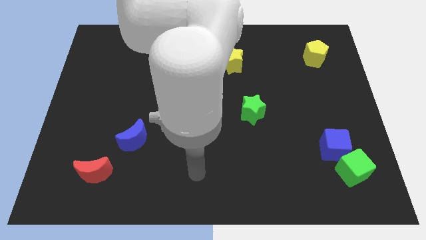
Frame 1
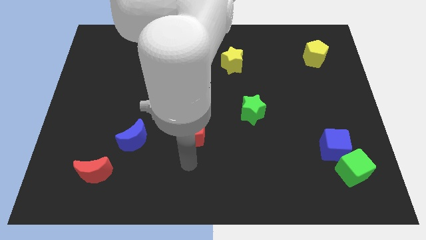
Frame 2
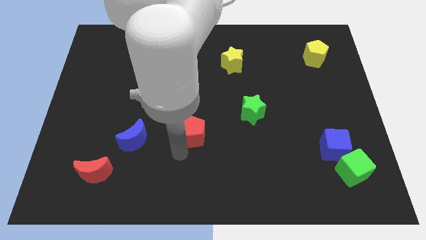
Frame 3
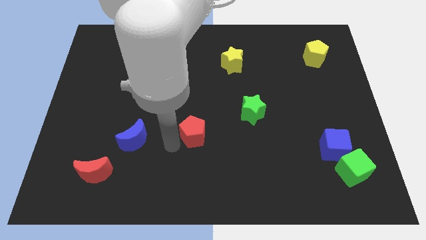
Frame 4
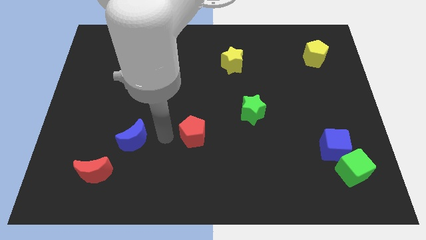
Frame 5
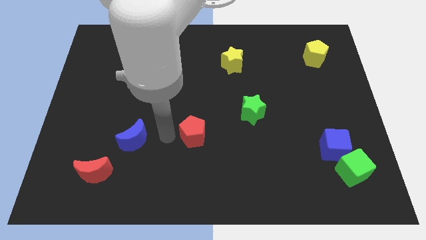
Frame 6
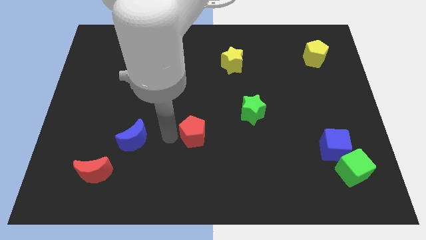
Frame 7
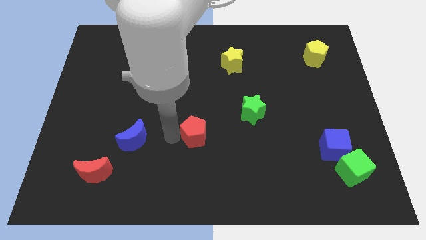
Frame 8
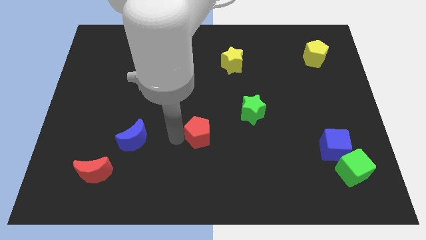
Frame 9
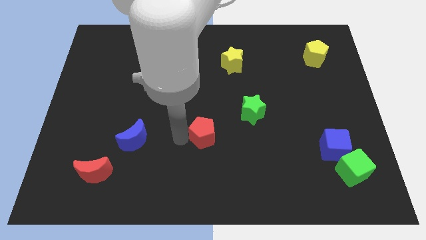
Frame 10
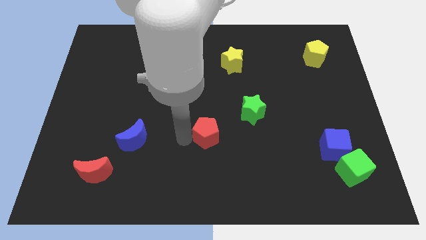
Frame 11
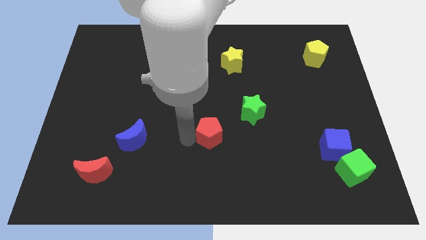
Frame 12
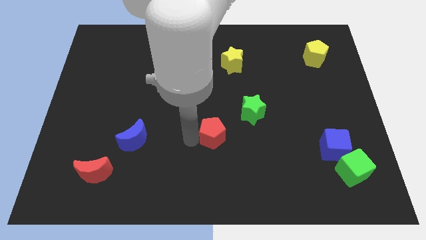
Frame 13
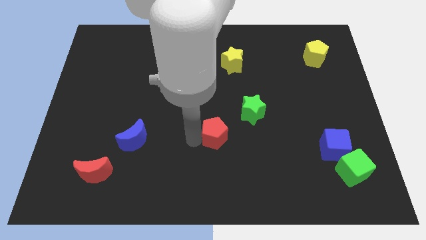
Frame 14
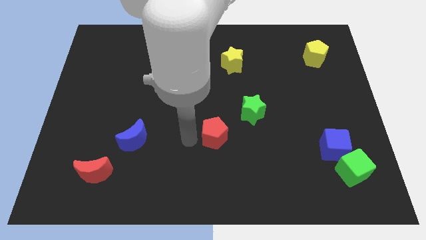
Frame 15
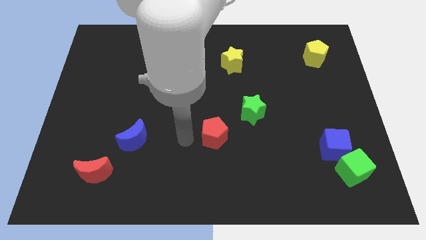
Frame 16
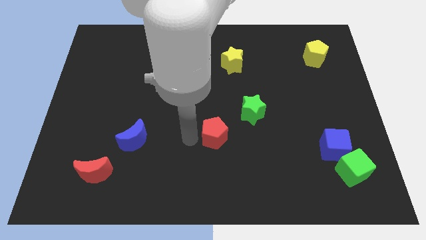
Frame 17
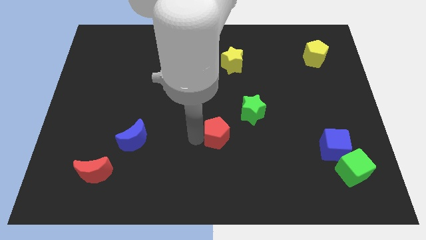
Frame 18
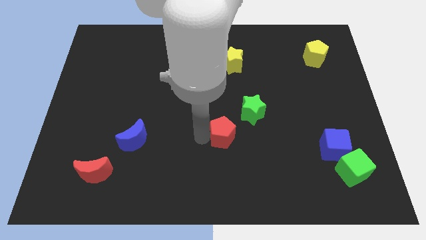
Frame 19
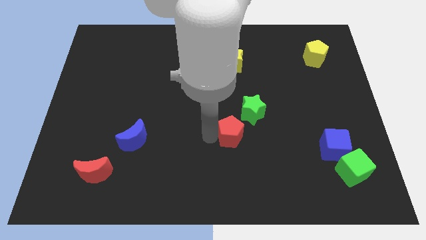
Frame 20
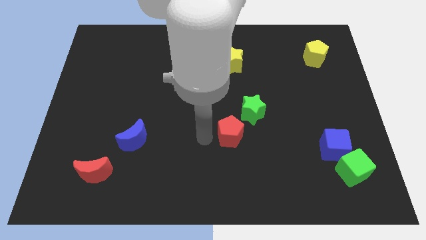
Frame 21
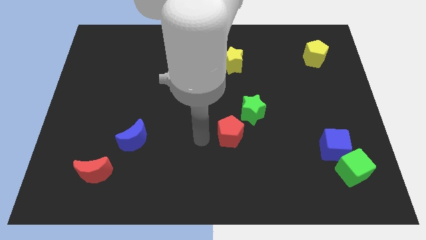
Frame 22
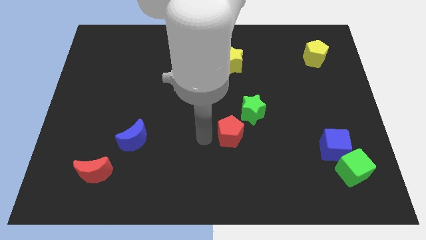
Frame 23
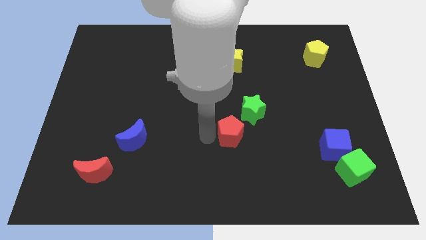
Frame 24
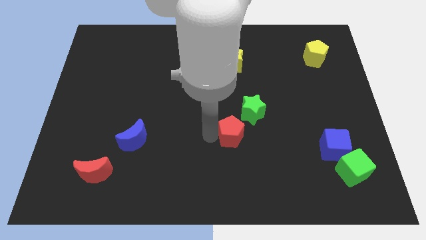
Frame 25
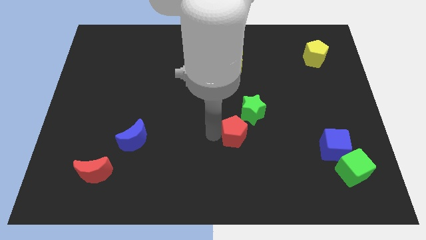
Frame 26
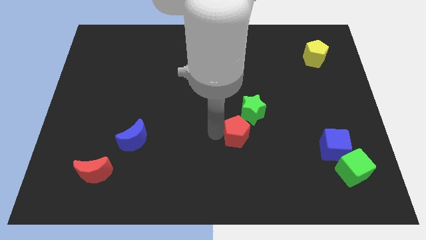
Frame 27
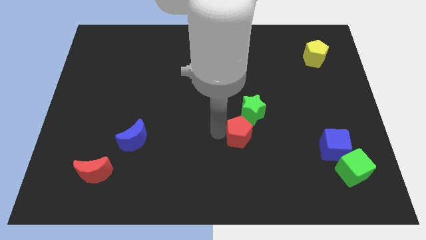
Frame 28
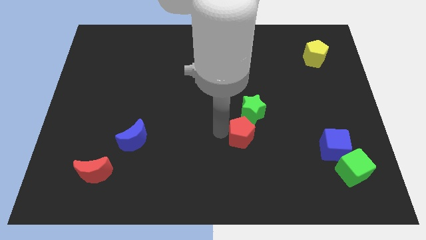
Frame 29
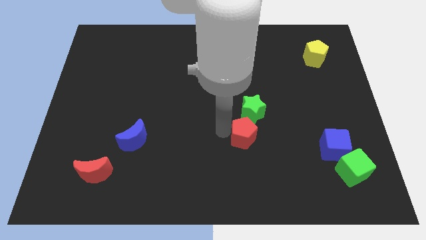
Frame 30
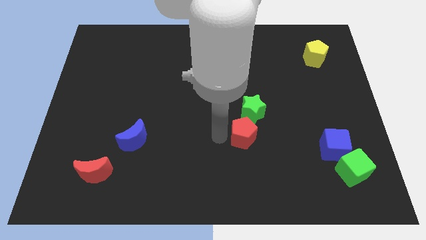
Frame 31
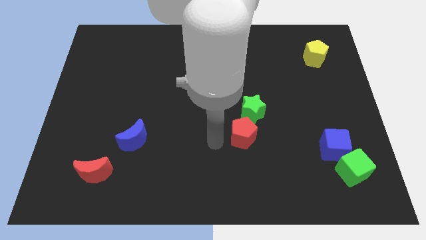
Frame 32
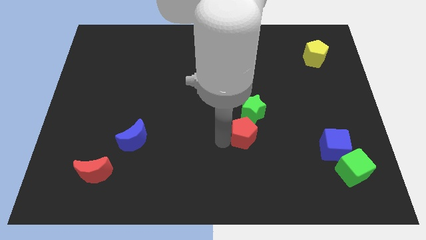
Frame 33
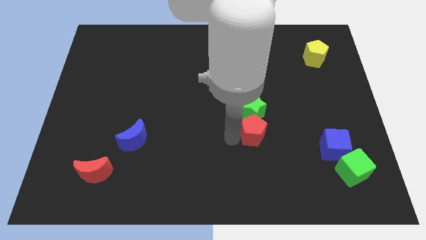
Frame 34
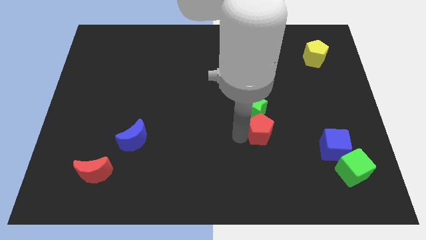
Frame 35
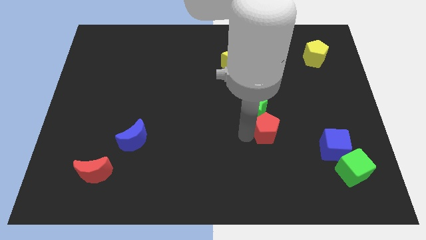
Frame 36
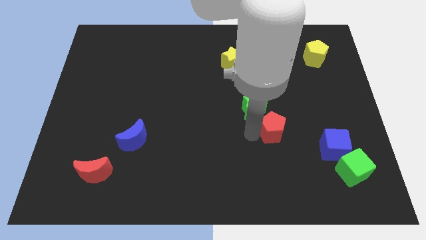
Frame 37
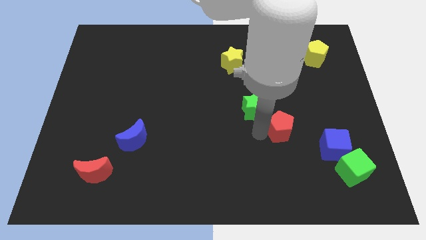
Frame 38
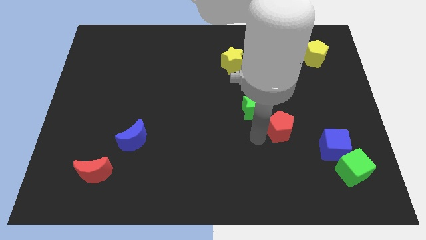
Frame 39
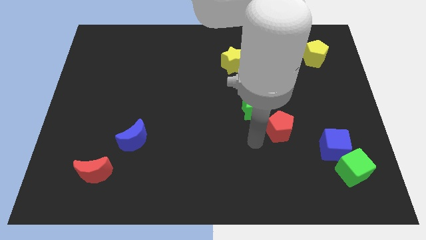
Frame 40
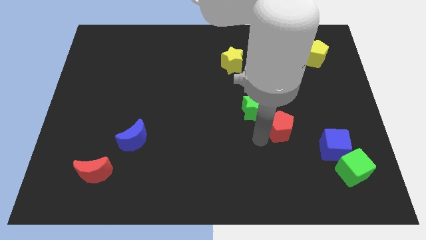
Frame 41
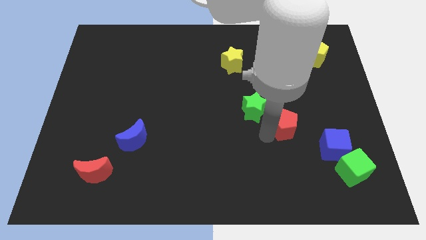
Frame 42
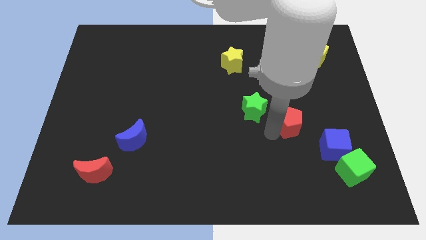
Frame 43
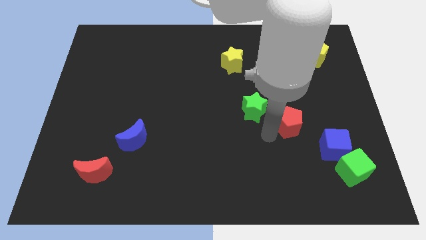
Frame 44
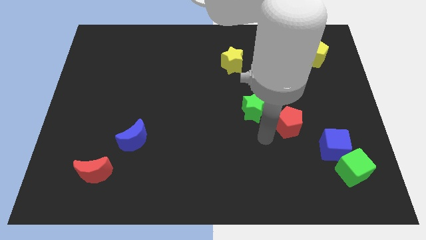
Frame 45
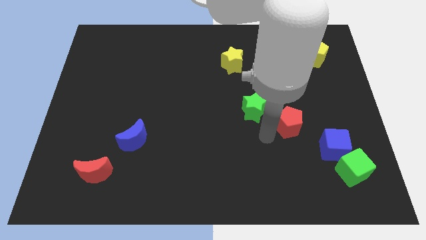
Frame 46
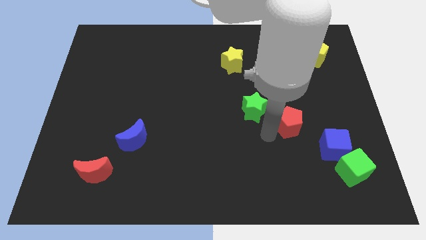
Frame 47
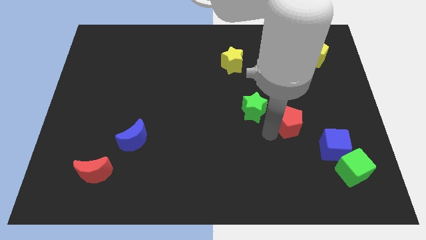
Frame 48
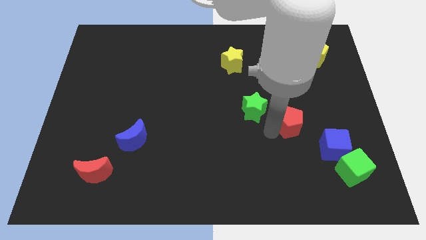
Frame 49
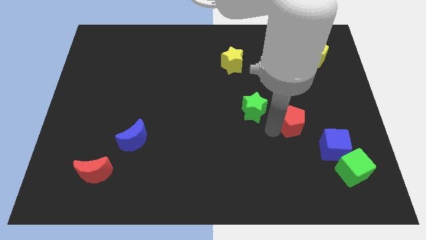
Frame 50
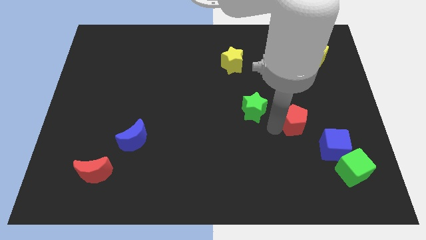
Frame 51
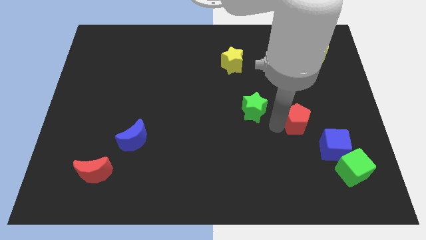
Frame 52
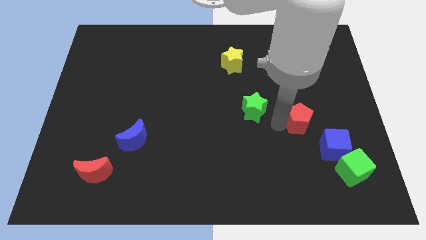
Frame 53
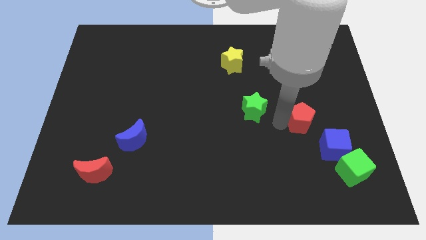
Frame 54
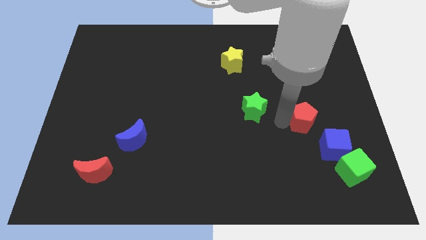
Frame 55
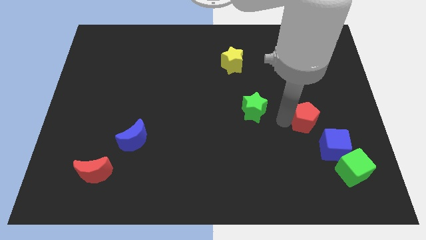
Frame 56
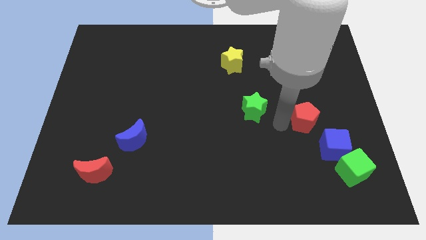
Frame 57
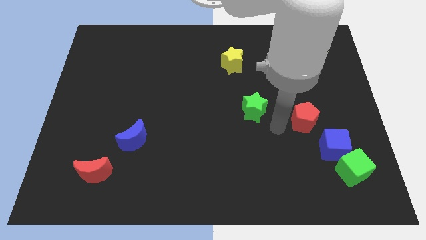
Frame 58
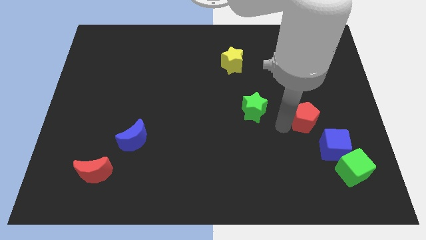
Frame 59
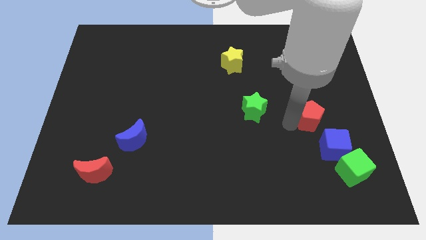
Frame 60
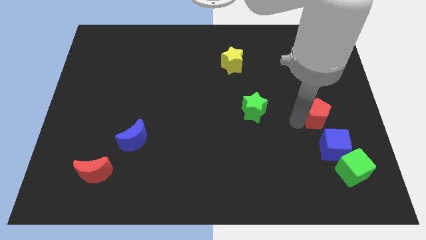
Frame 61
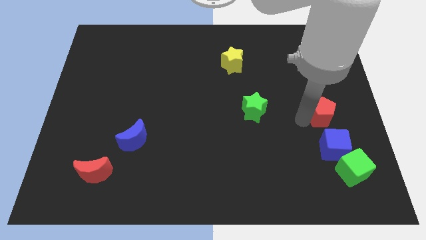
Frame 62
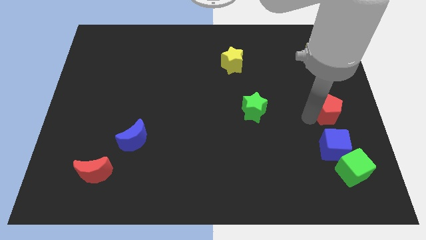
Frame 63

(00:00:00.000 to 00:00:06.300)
put the red pentagon to the right side
